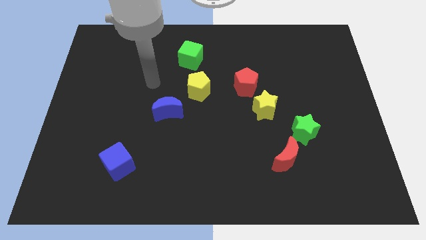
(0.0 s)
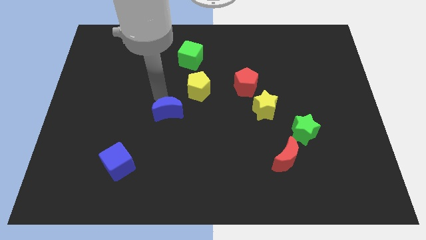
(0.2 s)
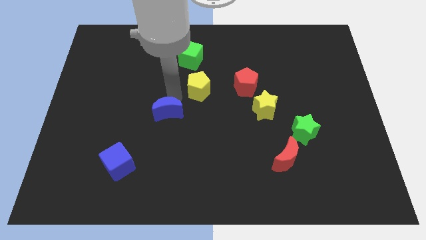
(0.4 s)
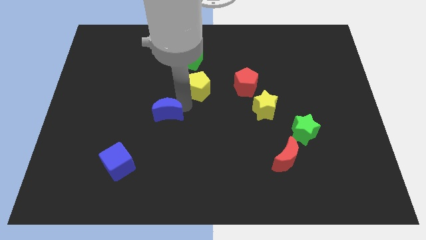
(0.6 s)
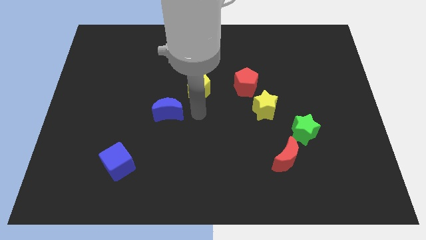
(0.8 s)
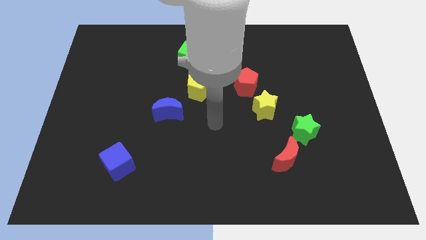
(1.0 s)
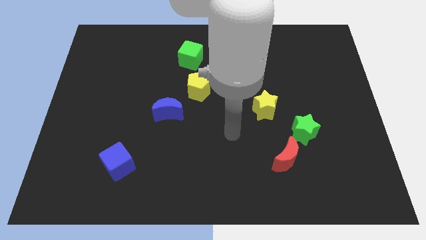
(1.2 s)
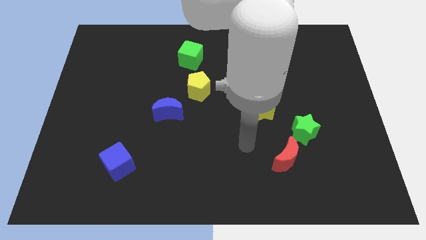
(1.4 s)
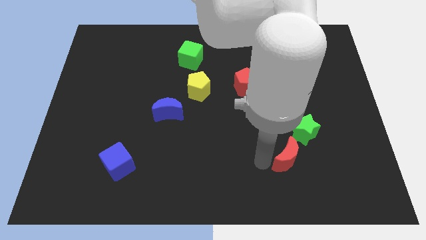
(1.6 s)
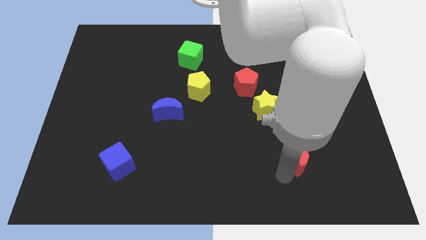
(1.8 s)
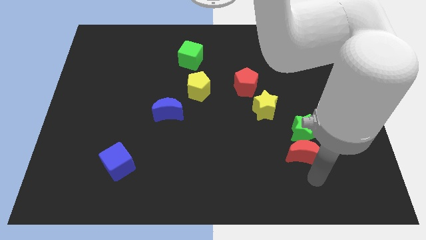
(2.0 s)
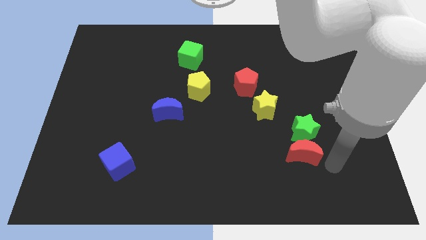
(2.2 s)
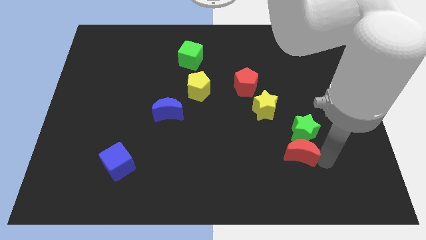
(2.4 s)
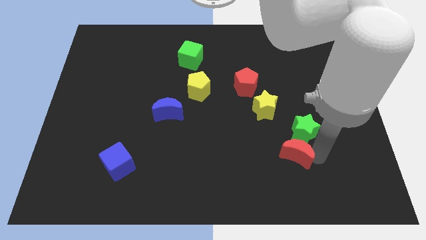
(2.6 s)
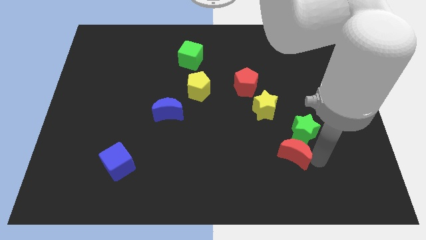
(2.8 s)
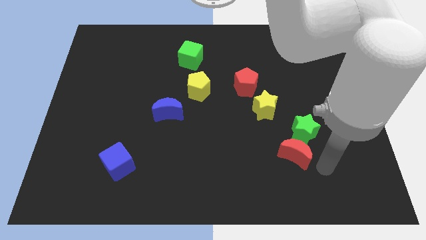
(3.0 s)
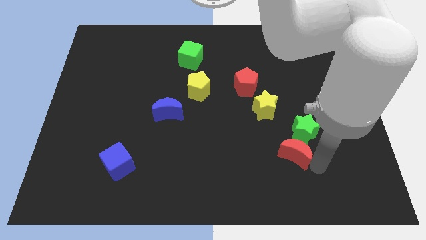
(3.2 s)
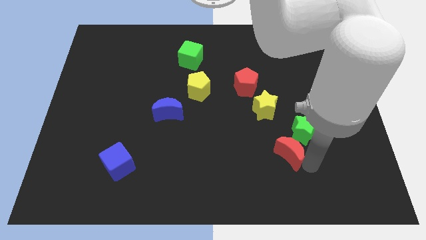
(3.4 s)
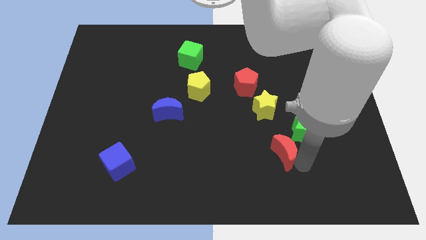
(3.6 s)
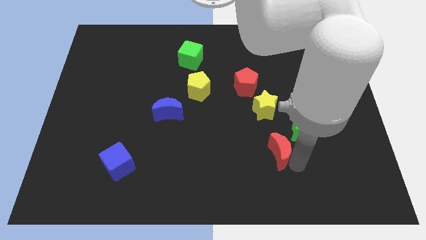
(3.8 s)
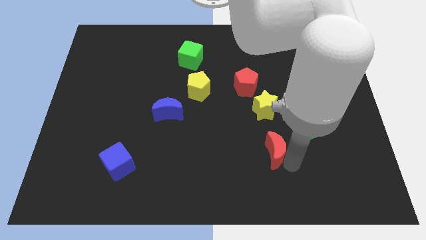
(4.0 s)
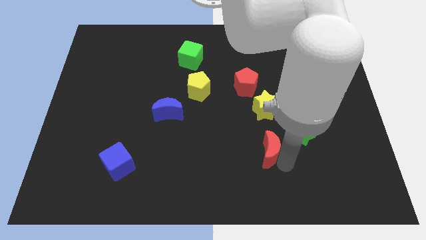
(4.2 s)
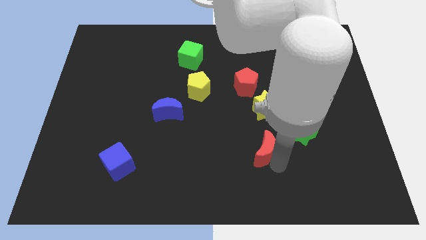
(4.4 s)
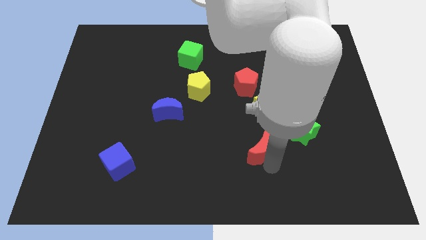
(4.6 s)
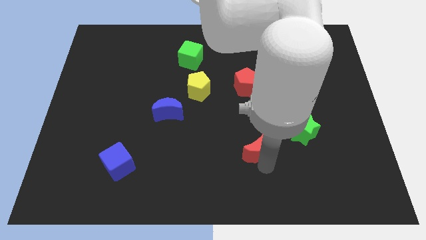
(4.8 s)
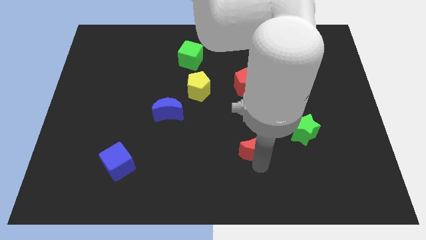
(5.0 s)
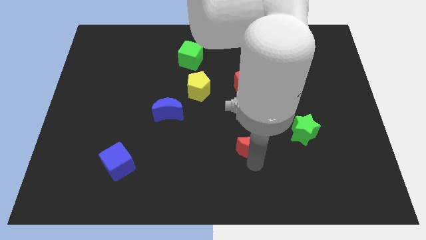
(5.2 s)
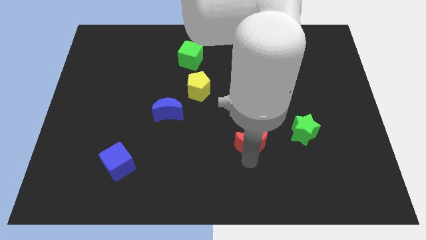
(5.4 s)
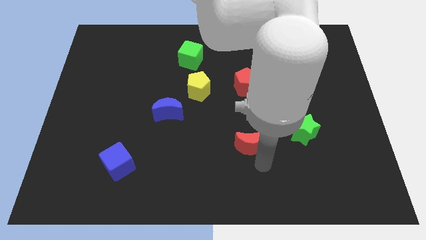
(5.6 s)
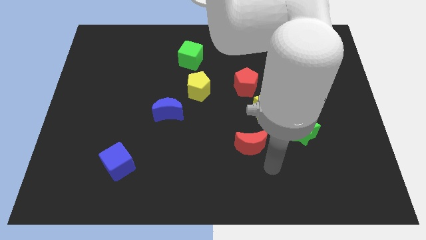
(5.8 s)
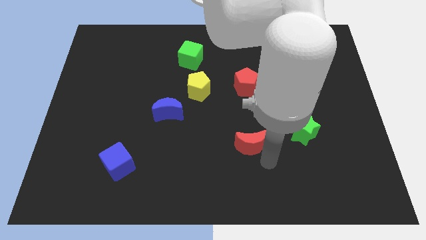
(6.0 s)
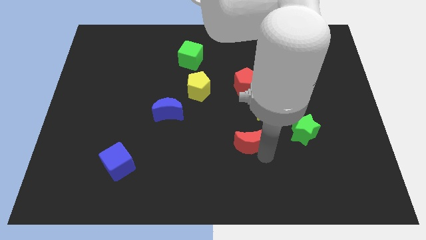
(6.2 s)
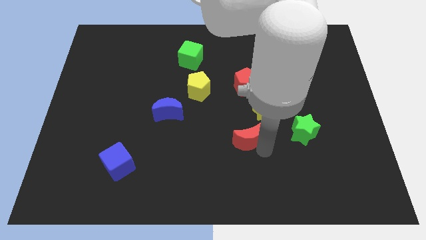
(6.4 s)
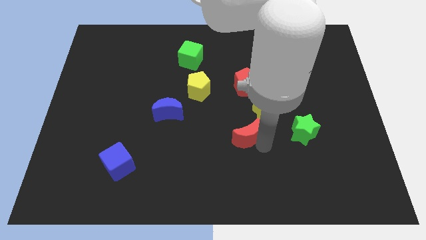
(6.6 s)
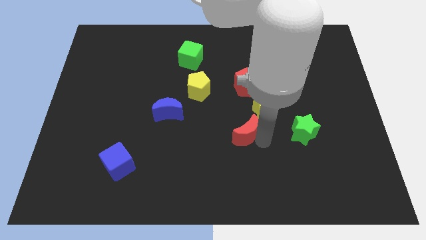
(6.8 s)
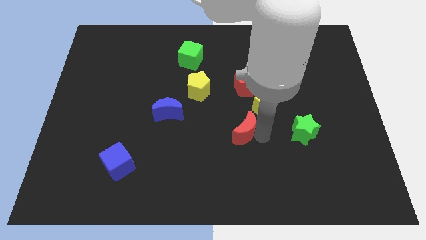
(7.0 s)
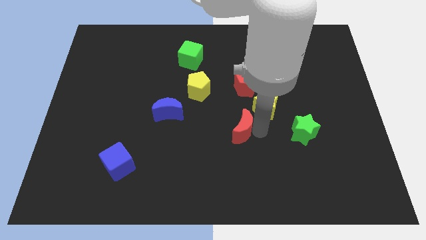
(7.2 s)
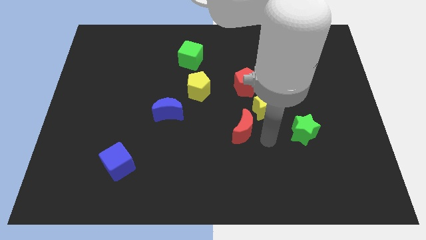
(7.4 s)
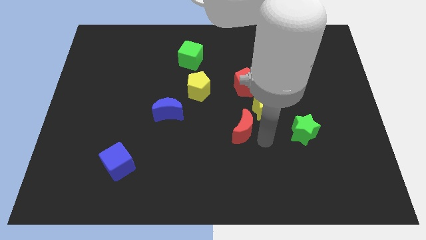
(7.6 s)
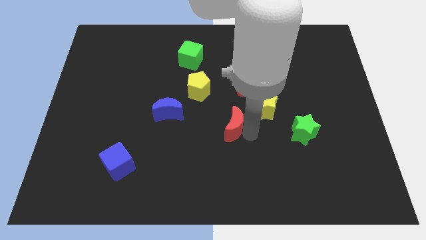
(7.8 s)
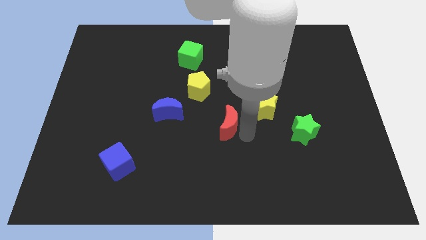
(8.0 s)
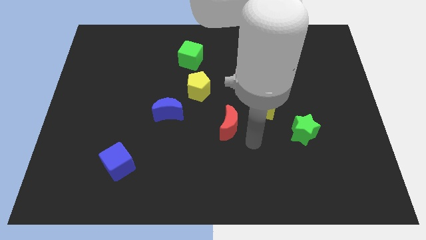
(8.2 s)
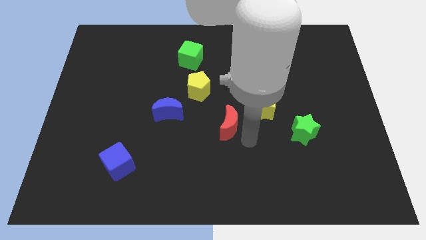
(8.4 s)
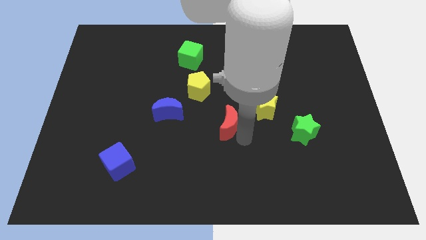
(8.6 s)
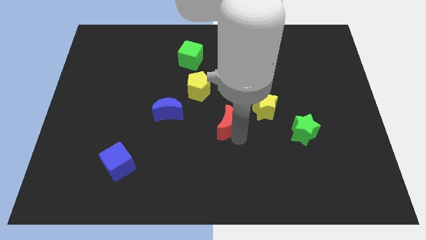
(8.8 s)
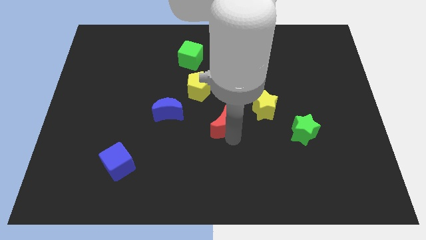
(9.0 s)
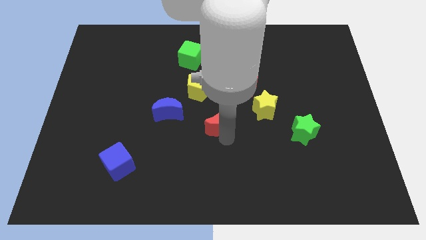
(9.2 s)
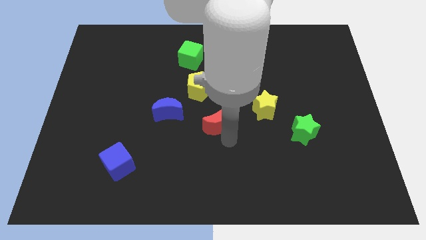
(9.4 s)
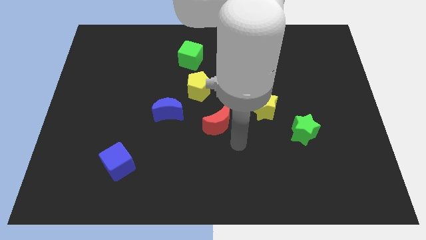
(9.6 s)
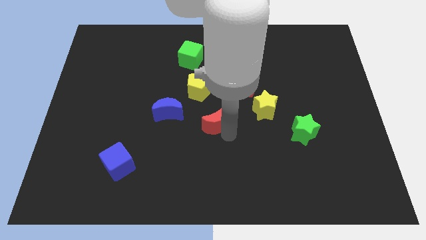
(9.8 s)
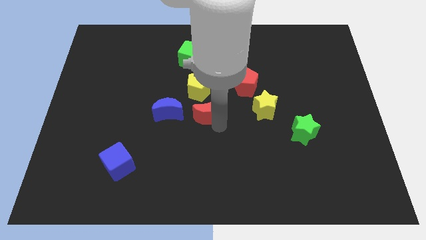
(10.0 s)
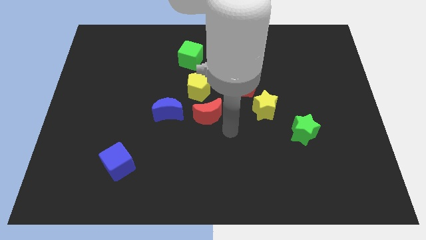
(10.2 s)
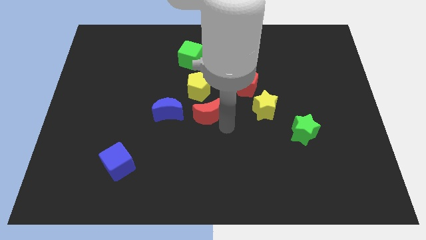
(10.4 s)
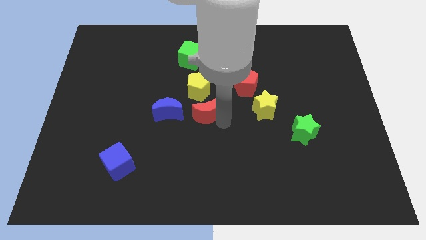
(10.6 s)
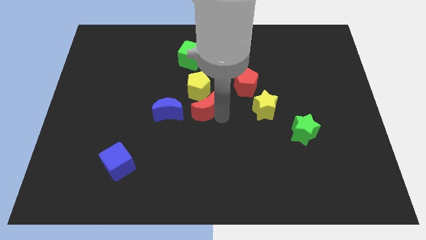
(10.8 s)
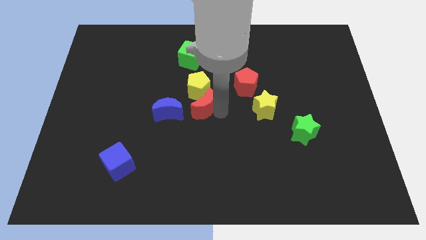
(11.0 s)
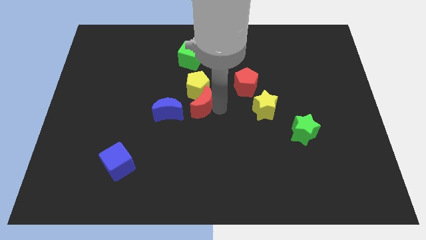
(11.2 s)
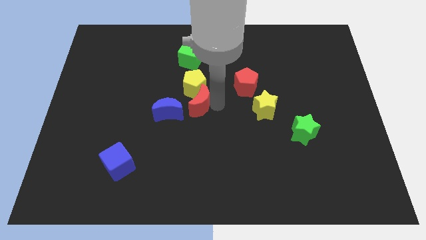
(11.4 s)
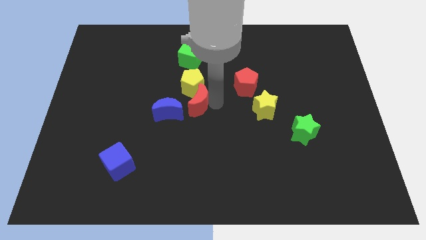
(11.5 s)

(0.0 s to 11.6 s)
slide the red moon below the green cube

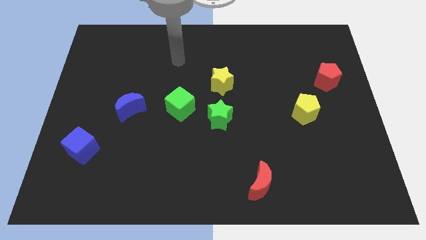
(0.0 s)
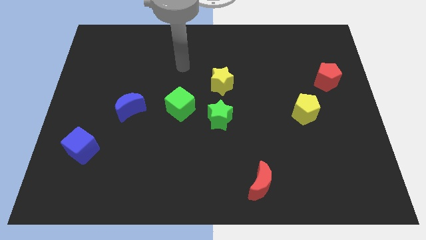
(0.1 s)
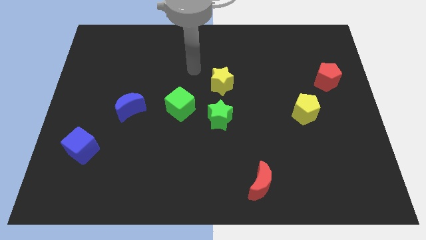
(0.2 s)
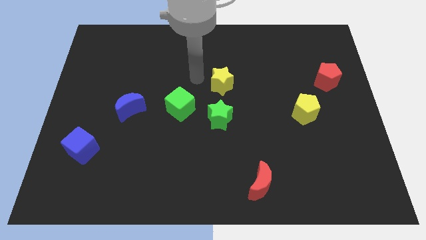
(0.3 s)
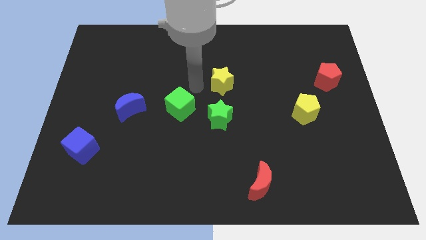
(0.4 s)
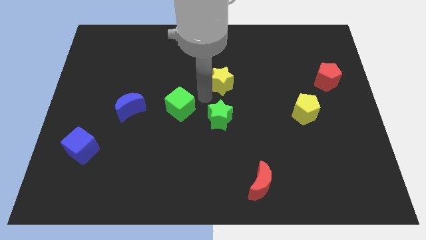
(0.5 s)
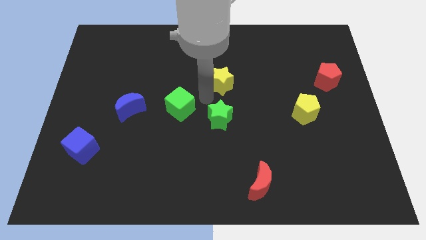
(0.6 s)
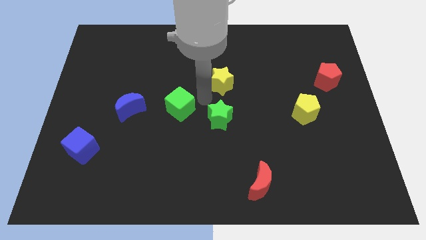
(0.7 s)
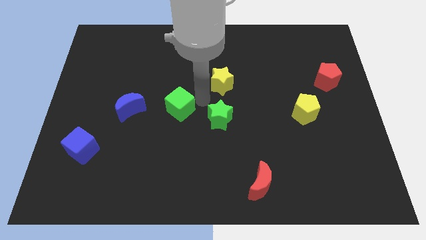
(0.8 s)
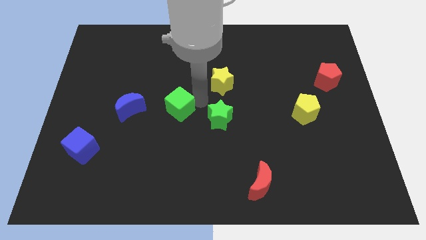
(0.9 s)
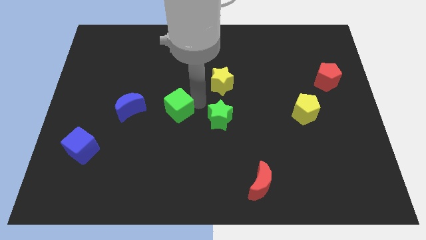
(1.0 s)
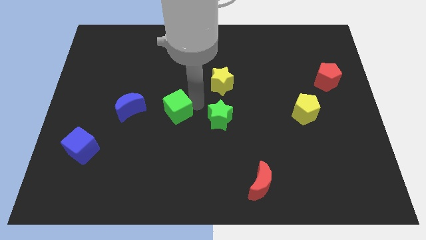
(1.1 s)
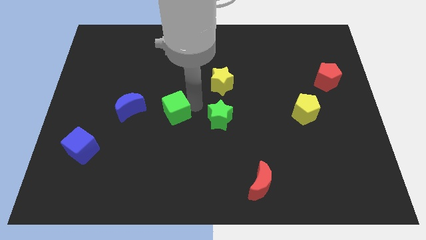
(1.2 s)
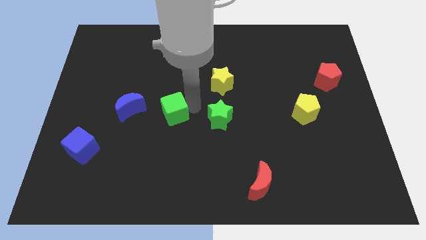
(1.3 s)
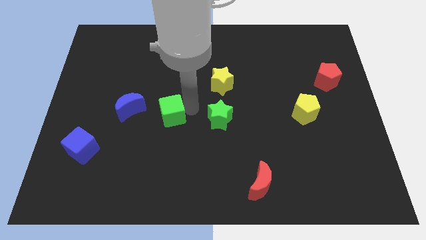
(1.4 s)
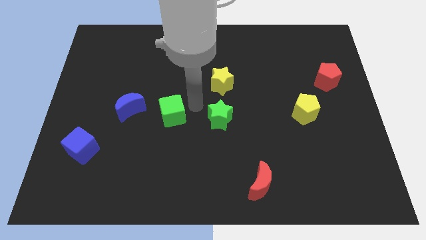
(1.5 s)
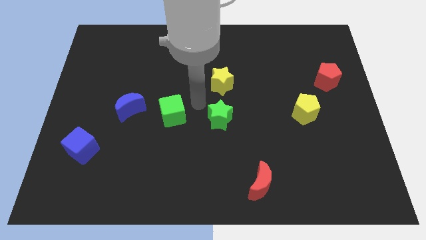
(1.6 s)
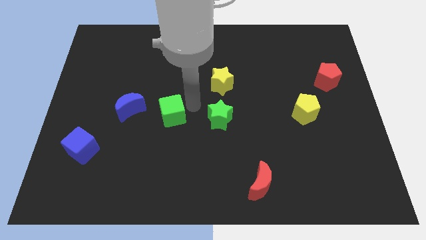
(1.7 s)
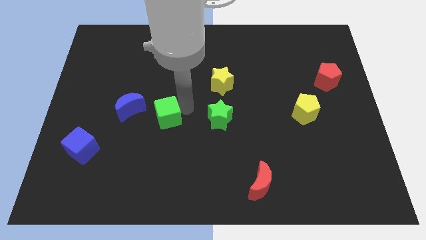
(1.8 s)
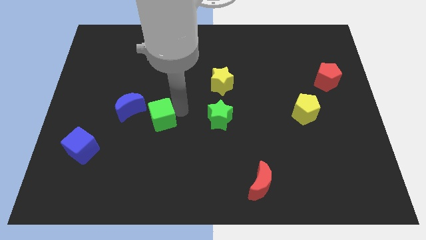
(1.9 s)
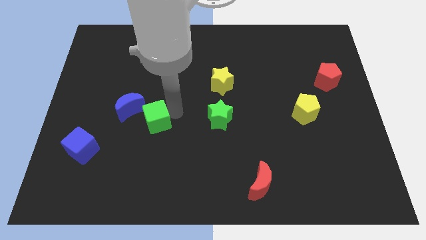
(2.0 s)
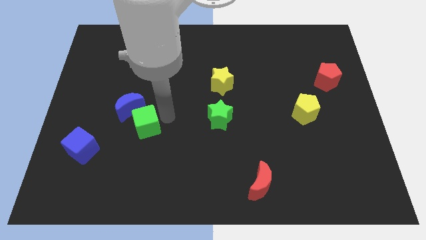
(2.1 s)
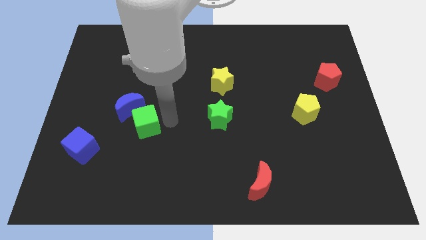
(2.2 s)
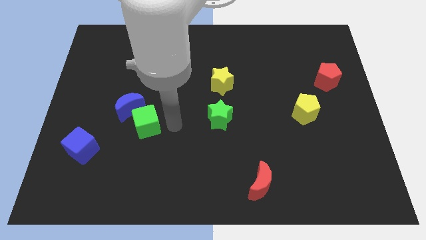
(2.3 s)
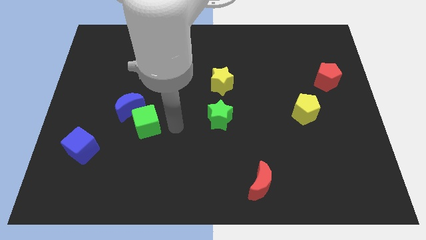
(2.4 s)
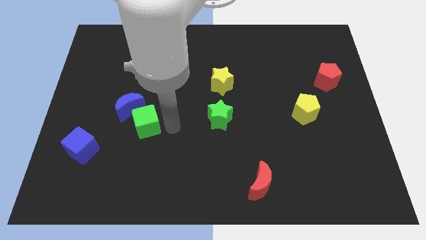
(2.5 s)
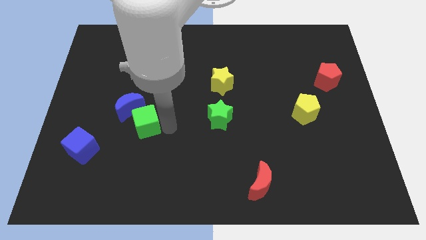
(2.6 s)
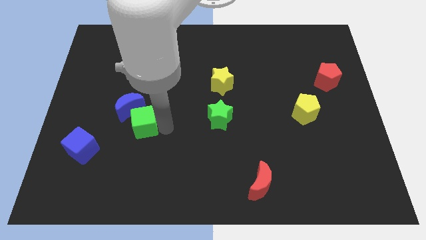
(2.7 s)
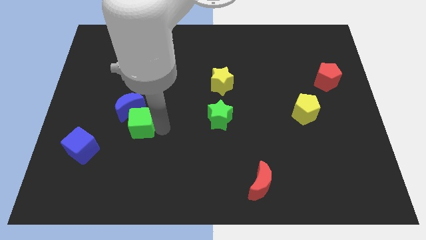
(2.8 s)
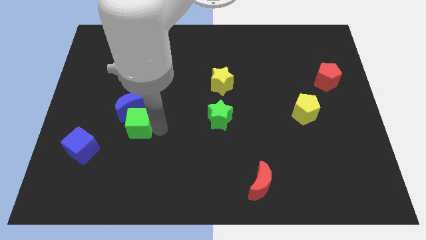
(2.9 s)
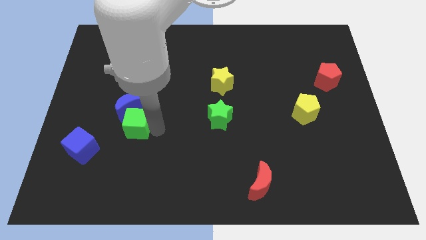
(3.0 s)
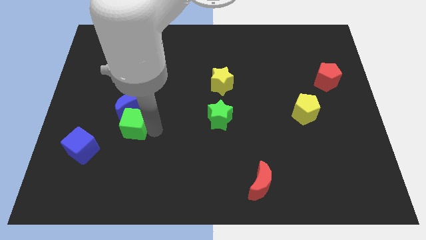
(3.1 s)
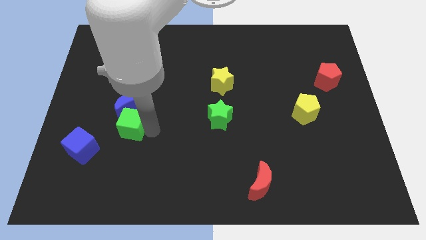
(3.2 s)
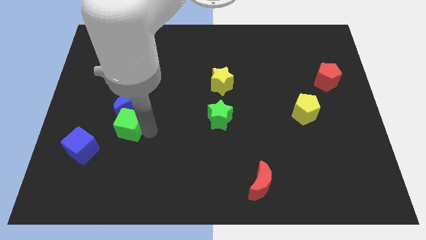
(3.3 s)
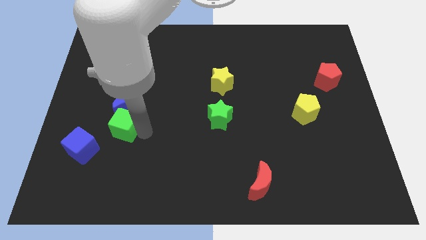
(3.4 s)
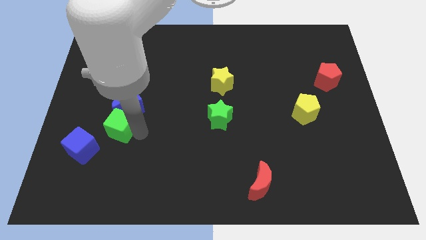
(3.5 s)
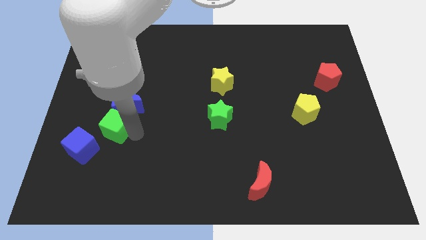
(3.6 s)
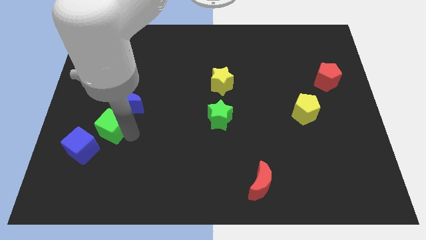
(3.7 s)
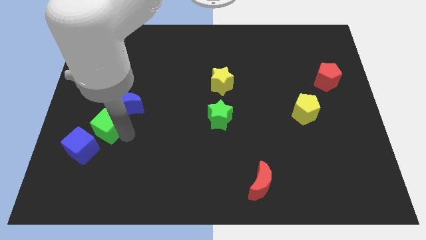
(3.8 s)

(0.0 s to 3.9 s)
move the green cube to the top of the blue cube
